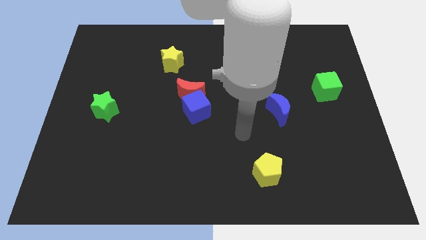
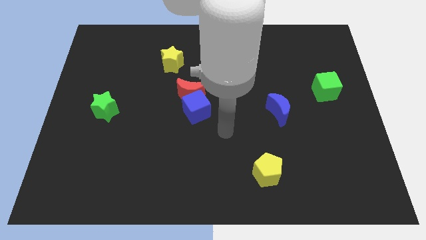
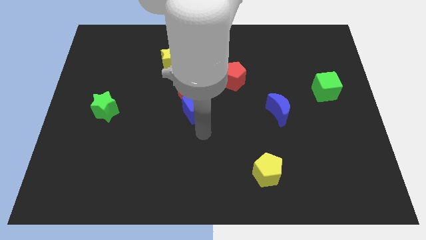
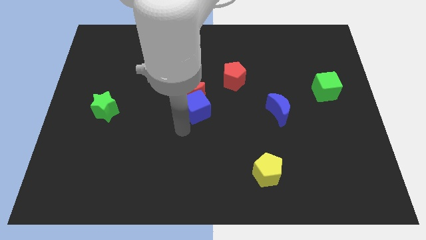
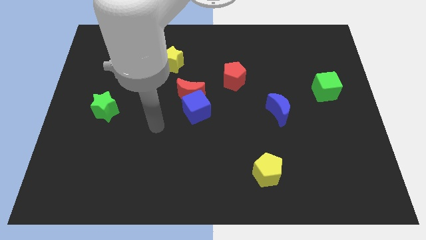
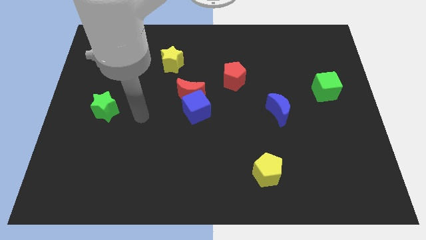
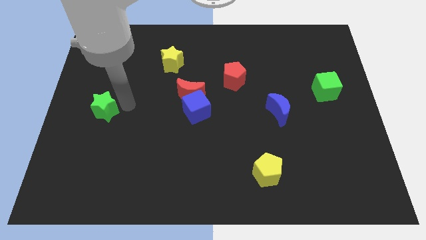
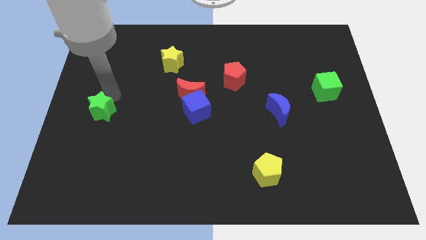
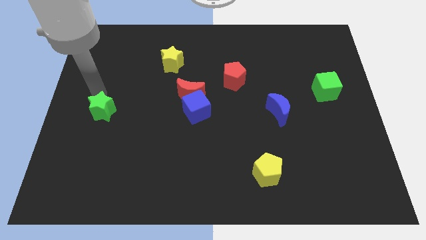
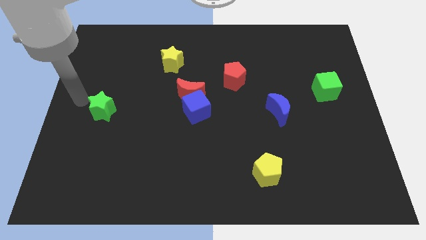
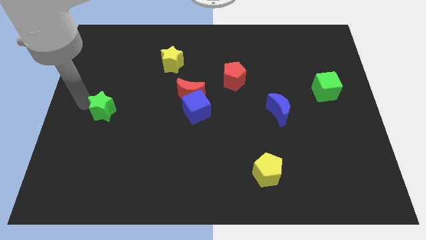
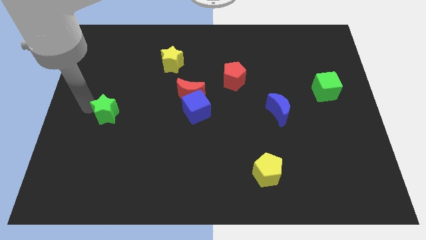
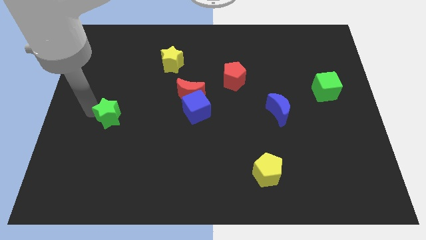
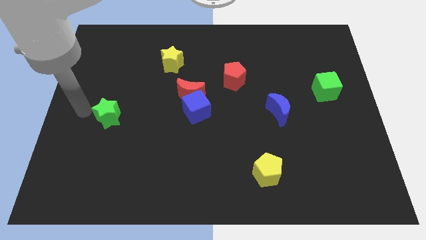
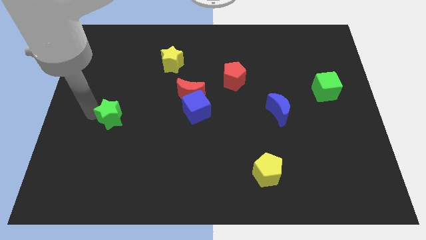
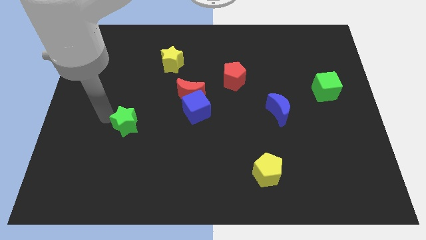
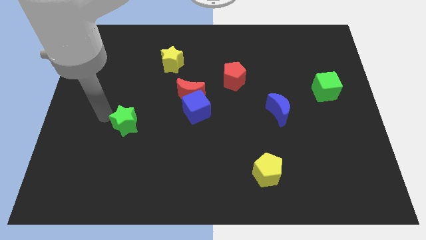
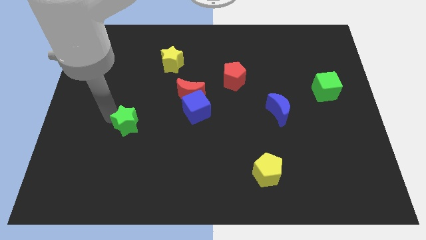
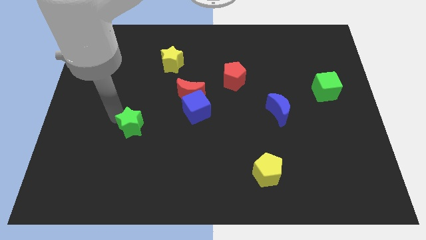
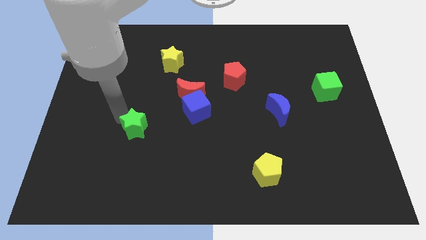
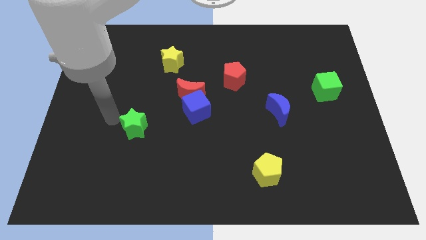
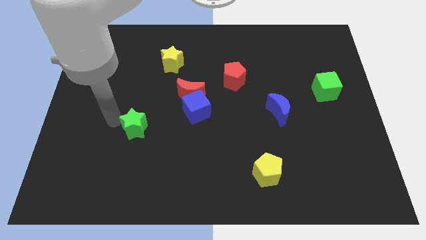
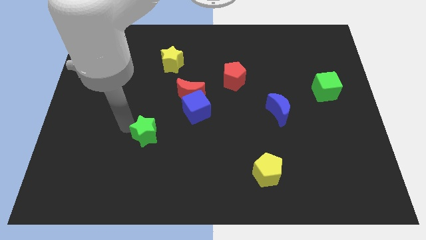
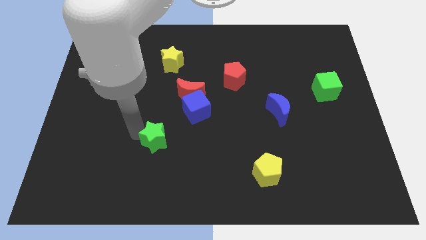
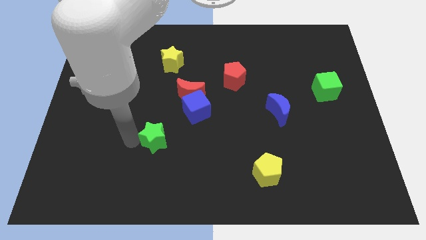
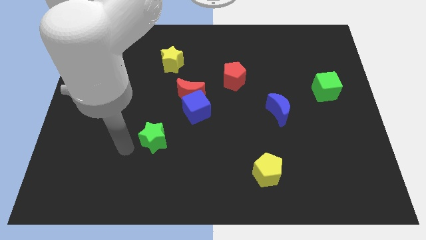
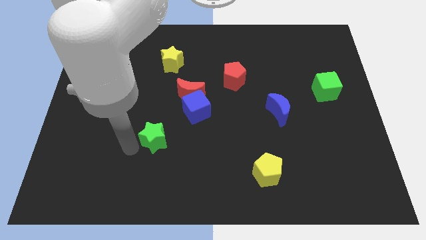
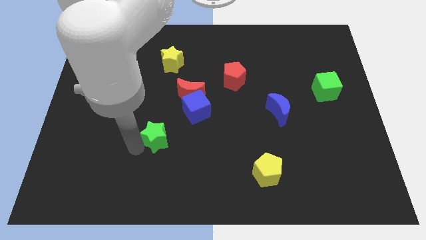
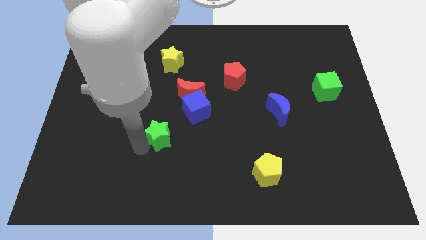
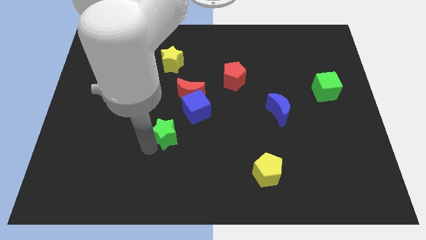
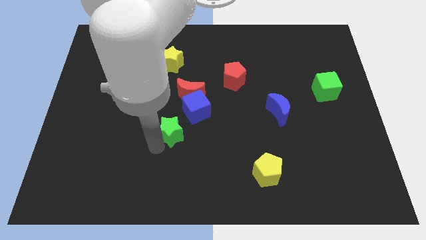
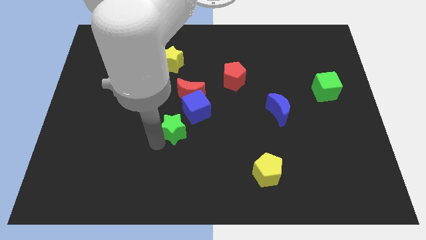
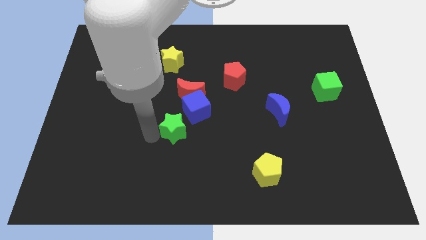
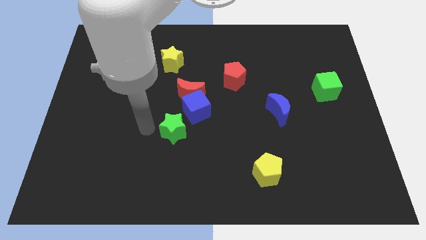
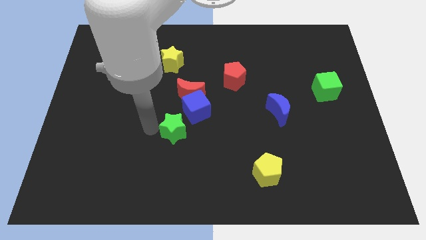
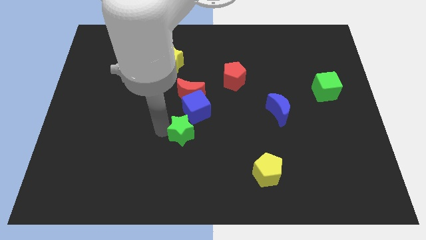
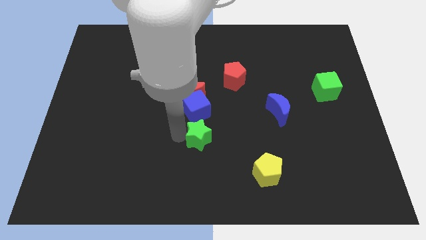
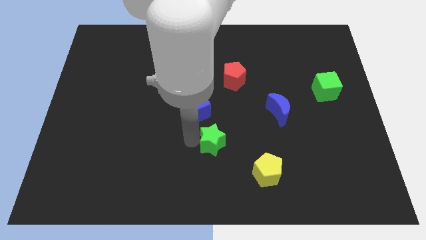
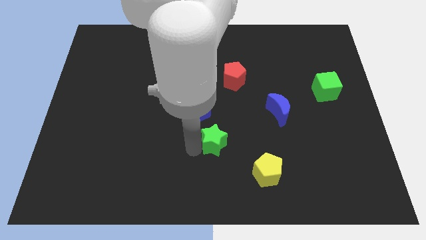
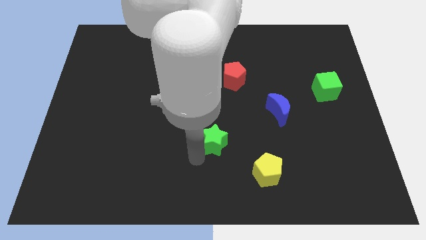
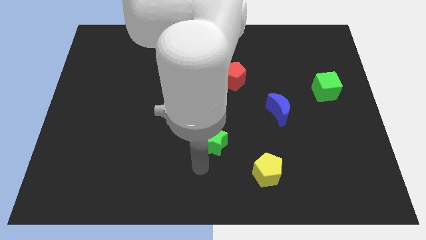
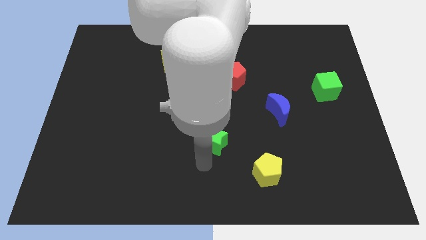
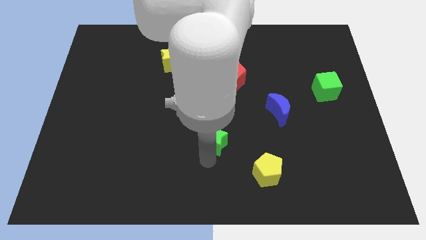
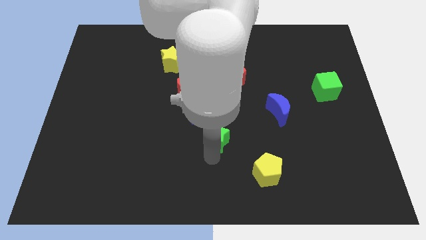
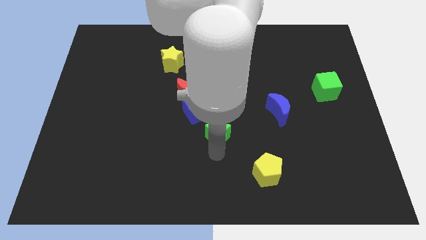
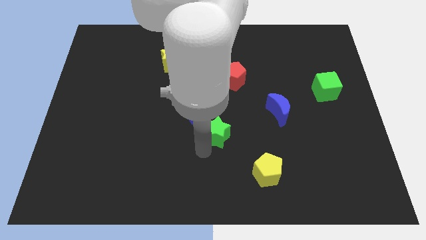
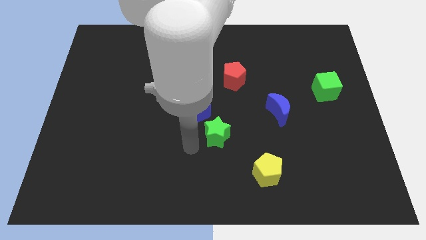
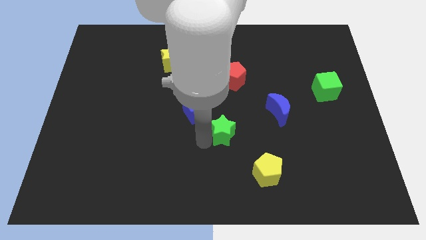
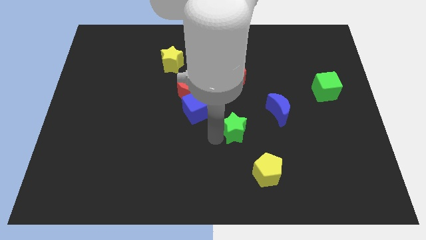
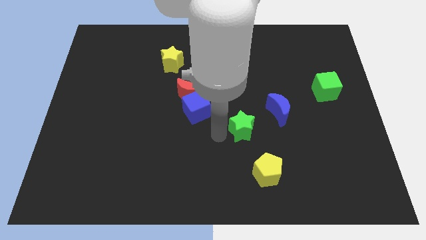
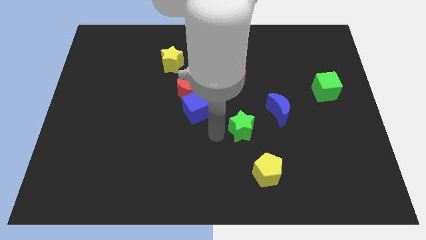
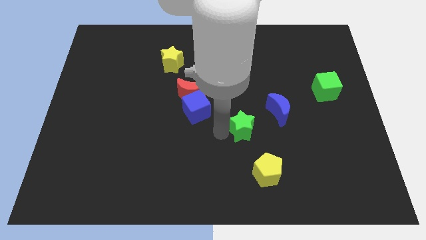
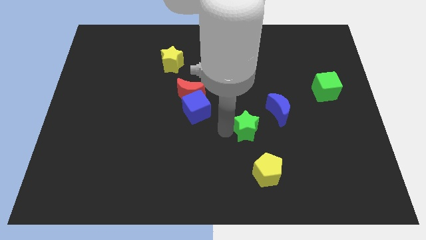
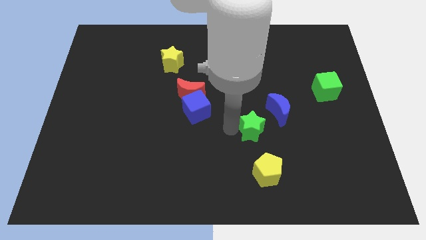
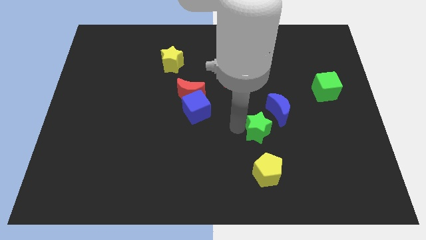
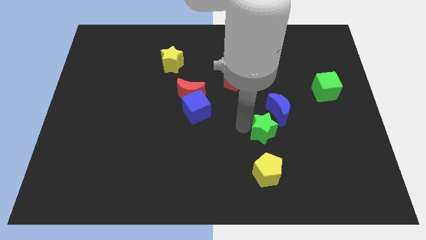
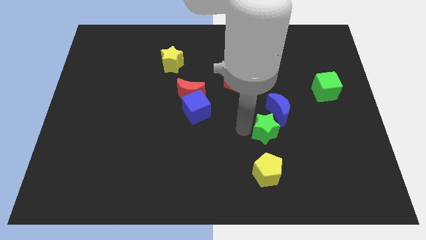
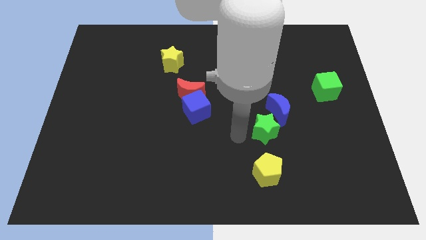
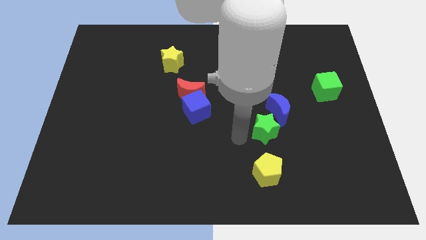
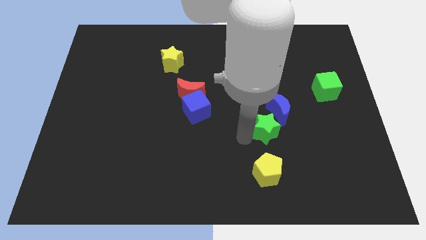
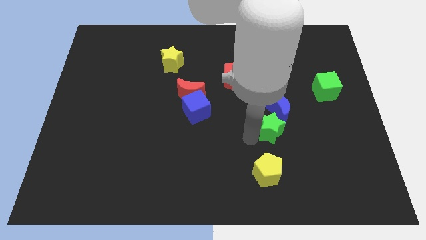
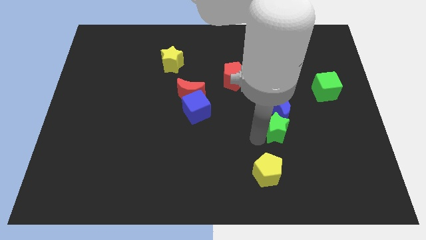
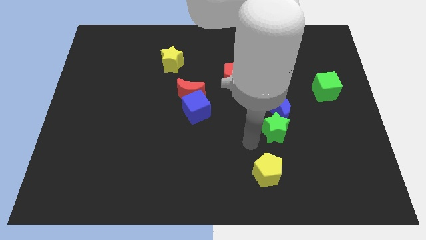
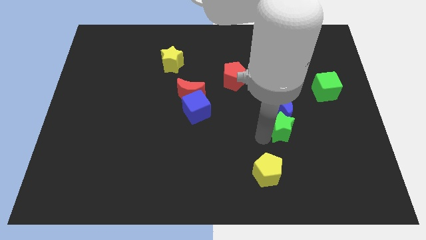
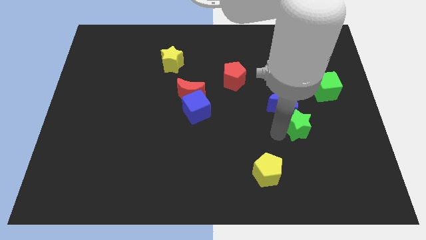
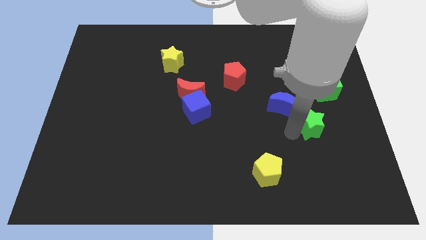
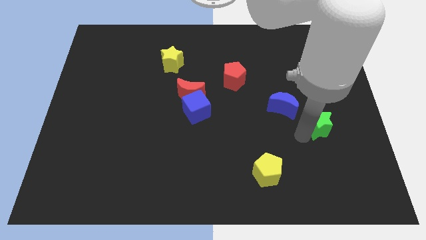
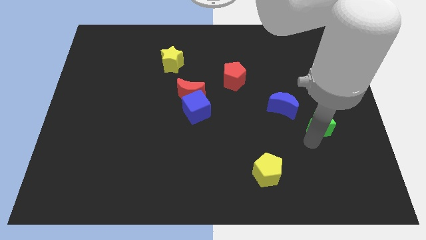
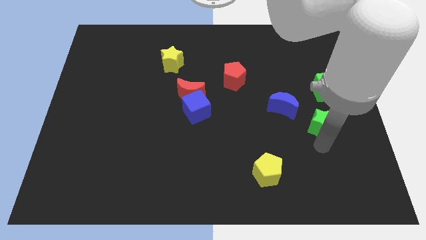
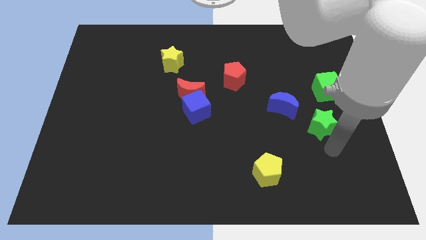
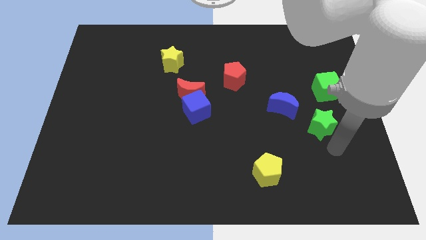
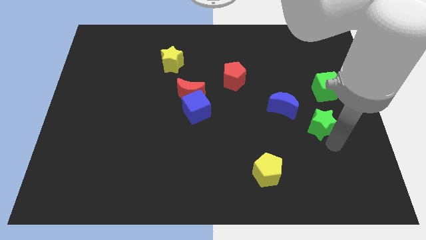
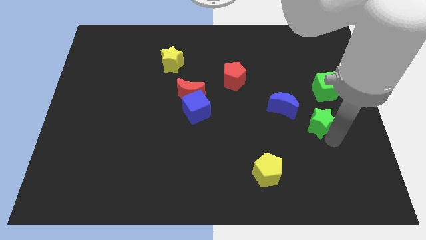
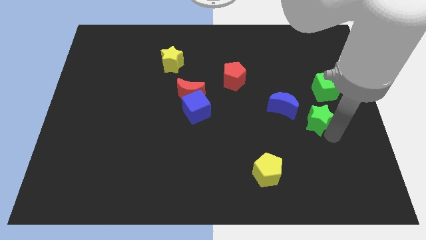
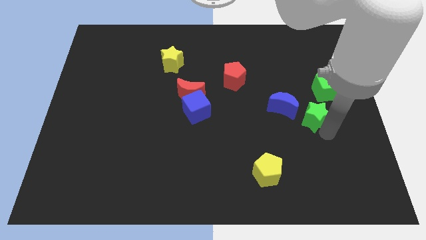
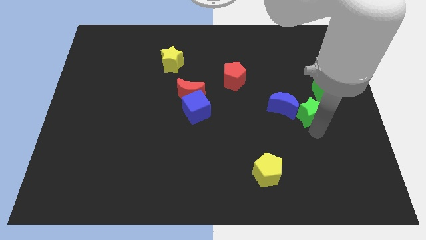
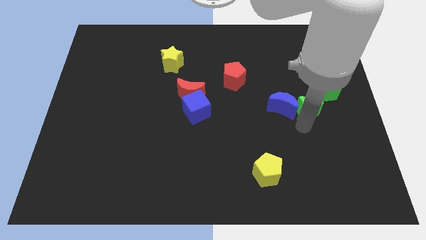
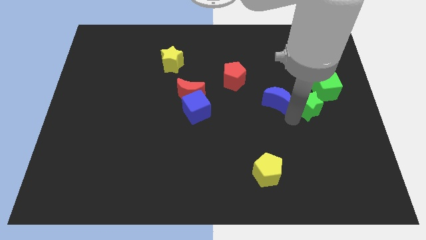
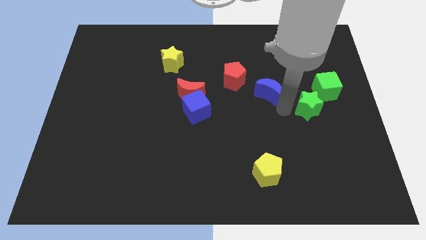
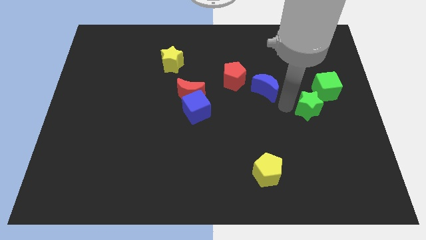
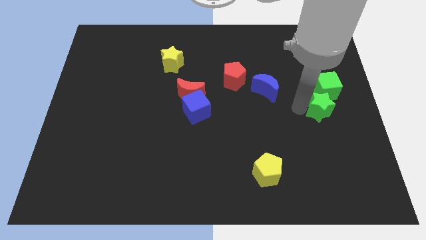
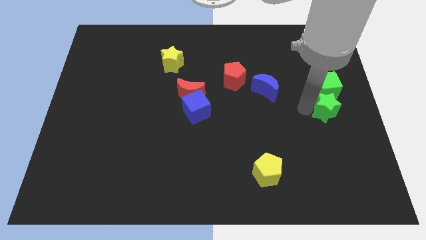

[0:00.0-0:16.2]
move the green star to the right side
